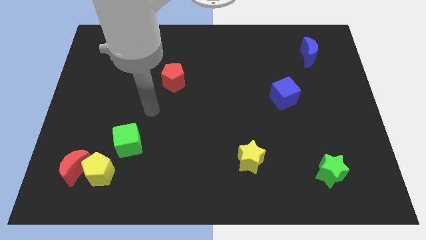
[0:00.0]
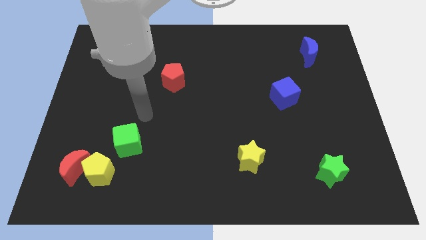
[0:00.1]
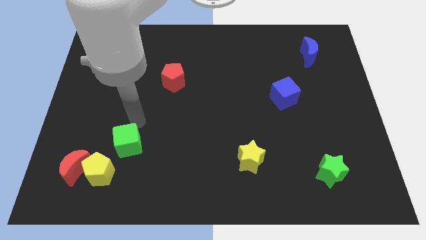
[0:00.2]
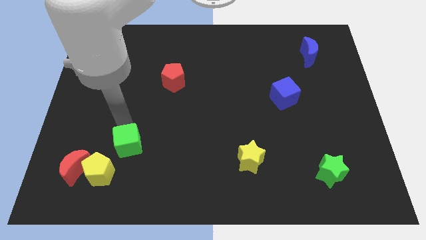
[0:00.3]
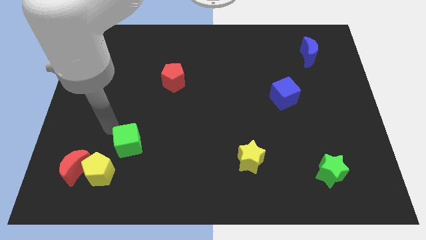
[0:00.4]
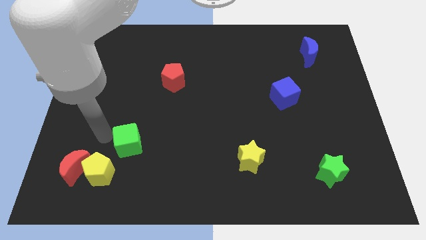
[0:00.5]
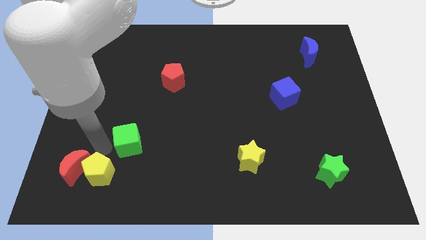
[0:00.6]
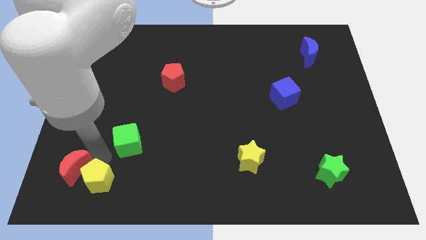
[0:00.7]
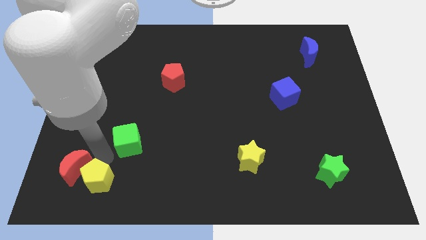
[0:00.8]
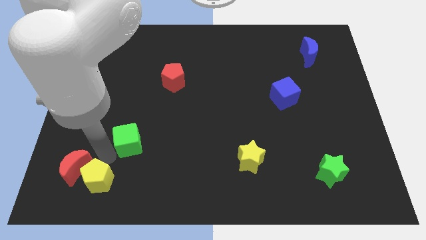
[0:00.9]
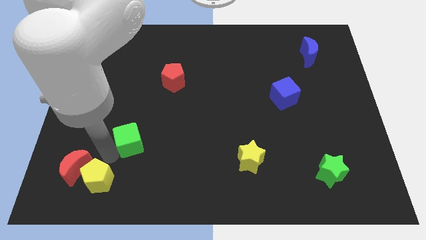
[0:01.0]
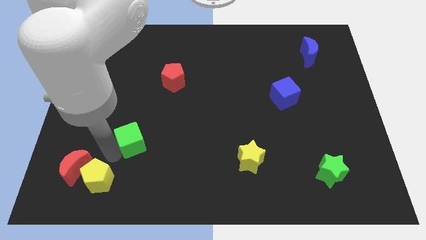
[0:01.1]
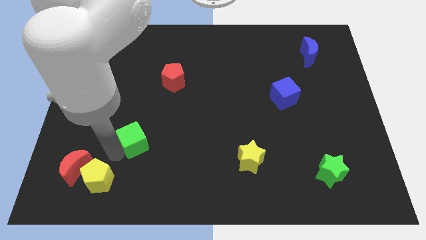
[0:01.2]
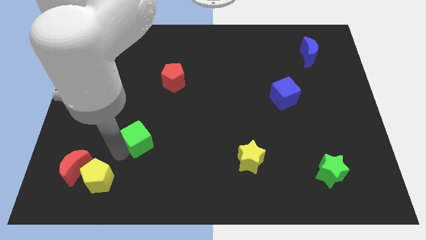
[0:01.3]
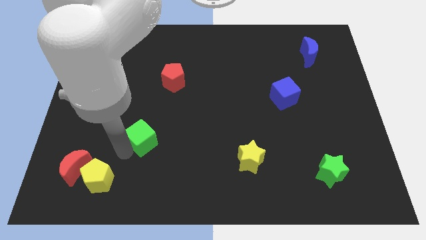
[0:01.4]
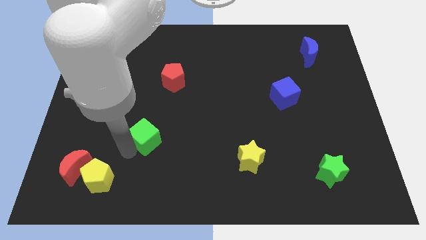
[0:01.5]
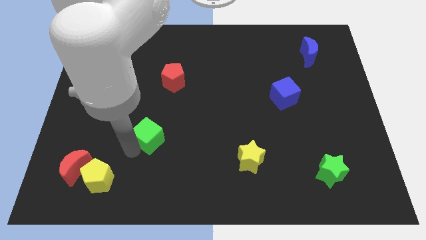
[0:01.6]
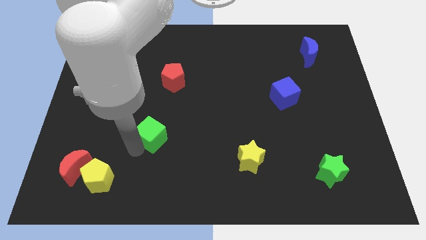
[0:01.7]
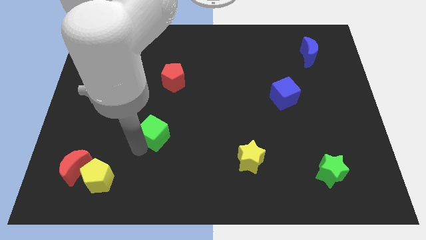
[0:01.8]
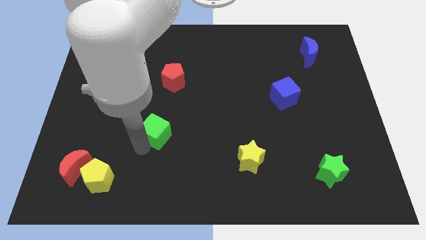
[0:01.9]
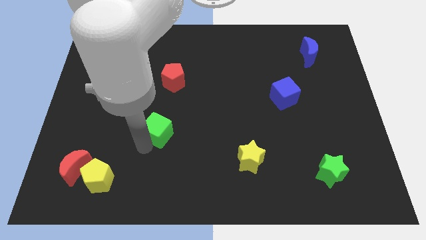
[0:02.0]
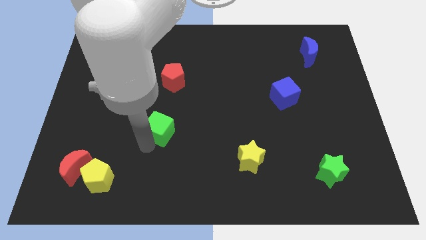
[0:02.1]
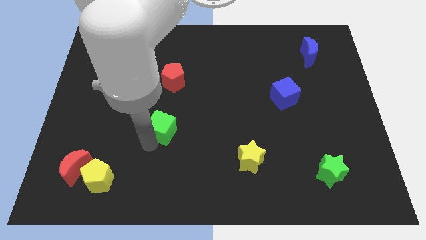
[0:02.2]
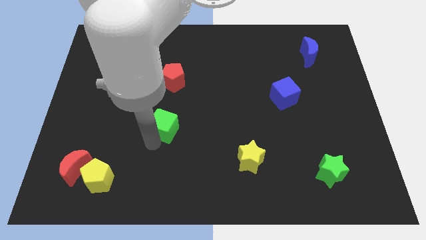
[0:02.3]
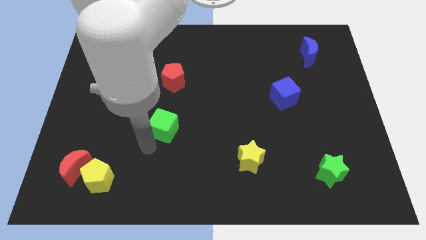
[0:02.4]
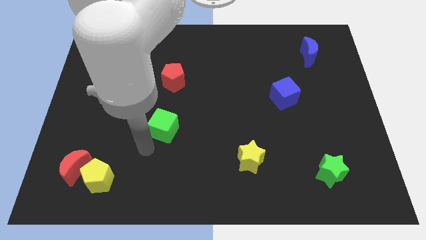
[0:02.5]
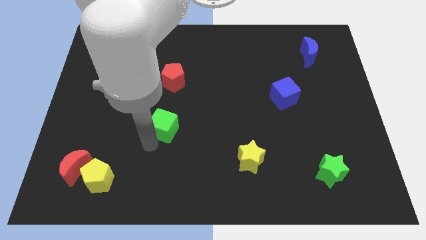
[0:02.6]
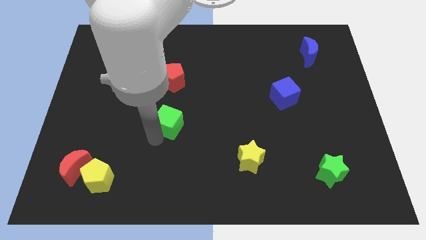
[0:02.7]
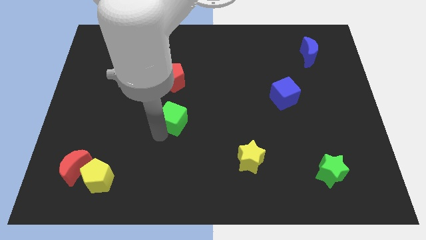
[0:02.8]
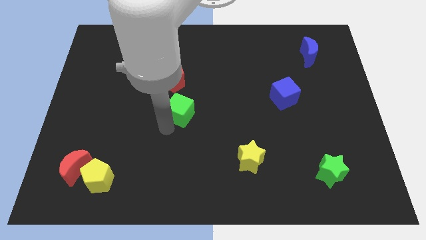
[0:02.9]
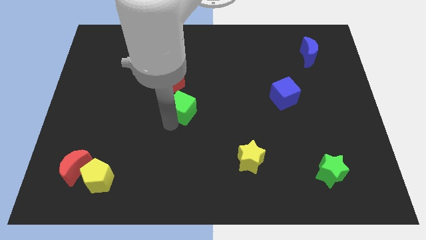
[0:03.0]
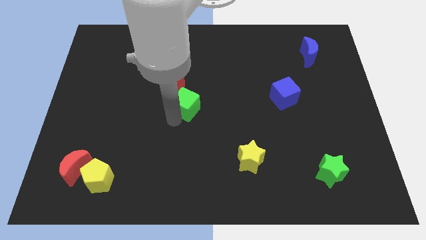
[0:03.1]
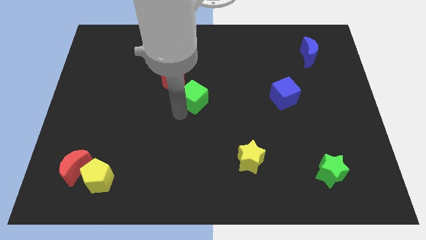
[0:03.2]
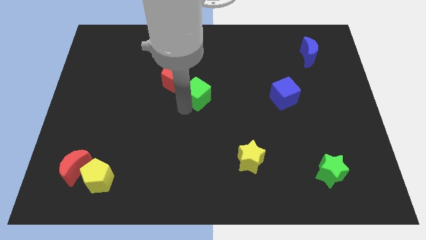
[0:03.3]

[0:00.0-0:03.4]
slide the green cube up and to the right

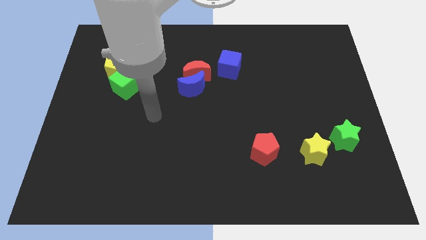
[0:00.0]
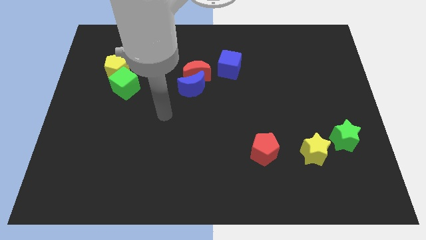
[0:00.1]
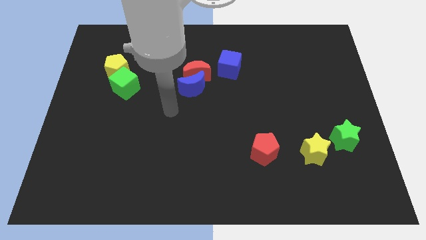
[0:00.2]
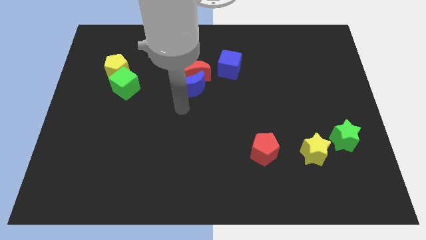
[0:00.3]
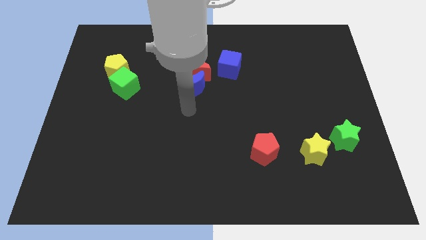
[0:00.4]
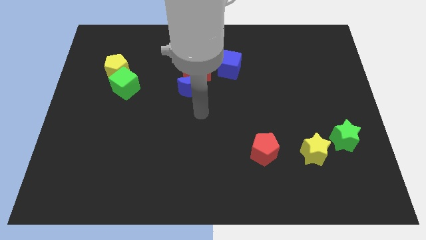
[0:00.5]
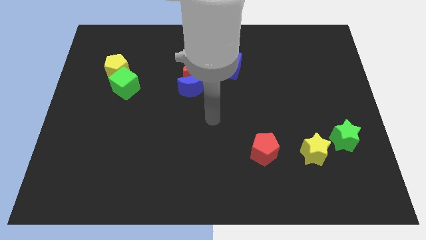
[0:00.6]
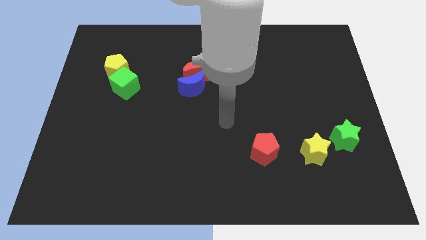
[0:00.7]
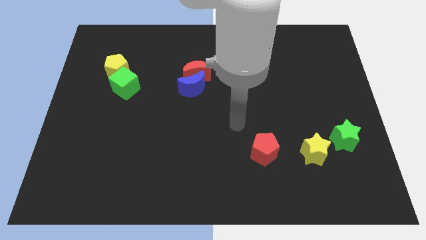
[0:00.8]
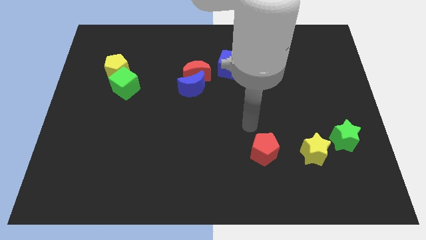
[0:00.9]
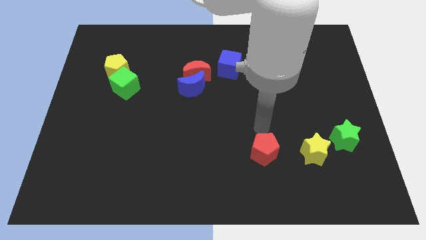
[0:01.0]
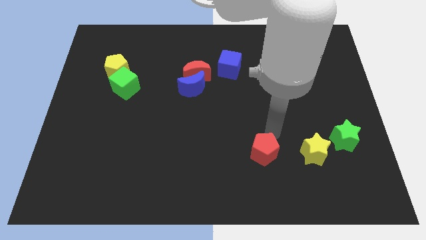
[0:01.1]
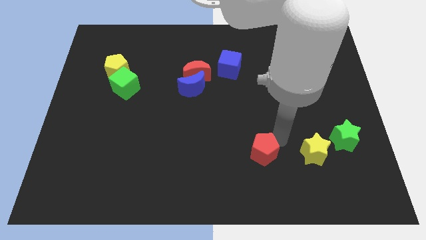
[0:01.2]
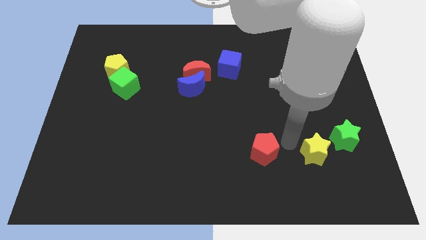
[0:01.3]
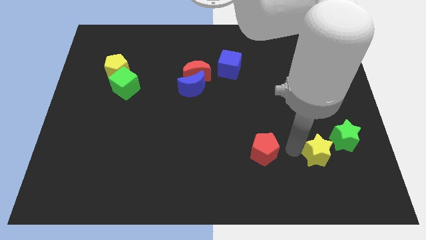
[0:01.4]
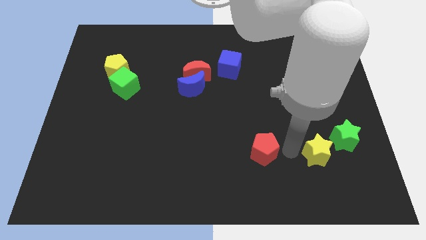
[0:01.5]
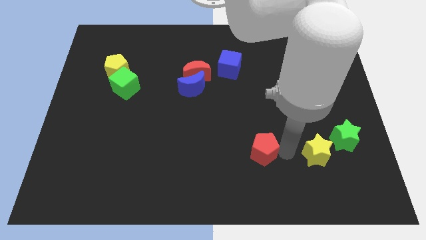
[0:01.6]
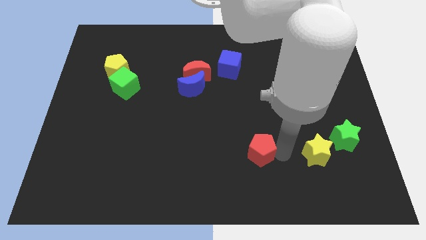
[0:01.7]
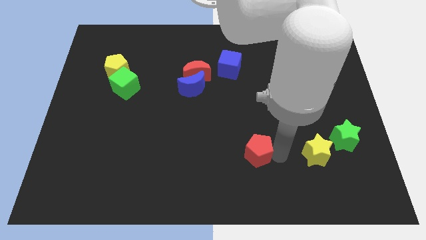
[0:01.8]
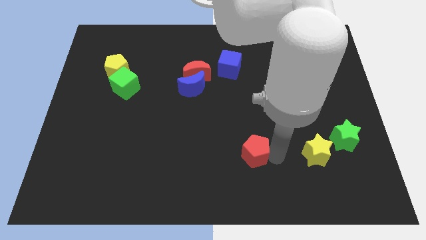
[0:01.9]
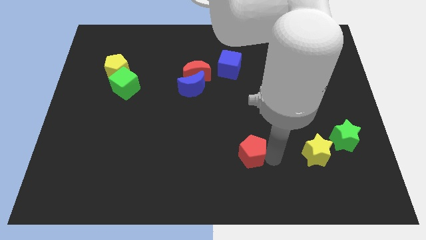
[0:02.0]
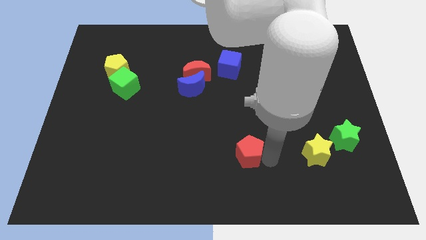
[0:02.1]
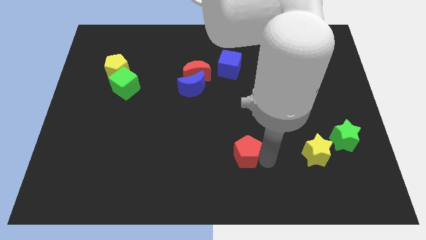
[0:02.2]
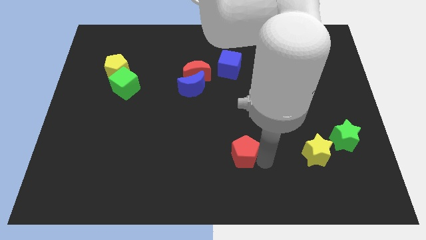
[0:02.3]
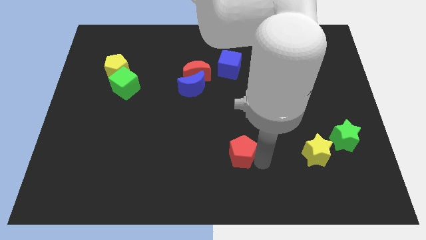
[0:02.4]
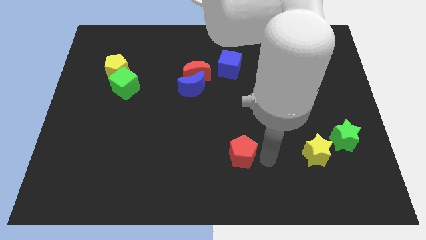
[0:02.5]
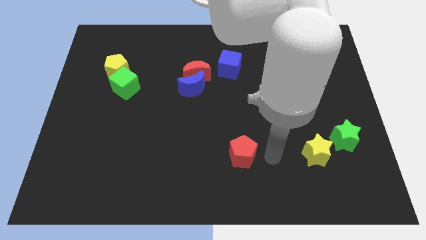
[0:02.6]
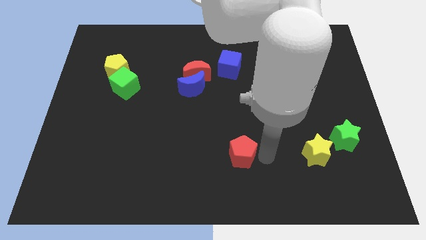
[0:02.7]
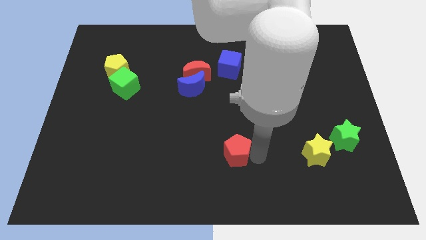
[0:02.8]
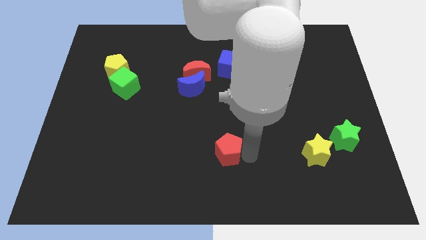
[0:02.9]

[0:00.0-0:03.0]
slightly slide the red pentagon to the left

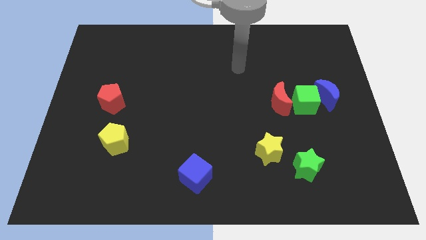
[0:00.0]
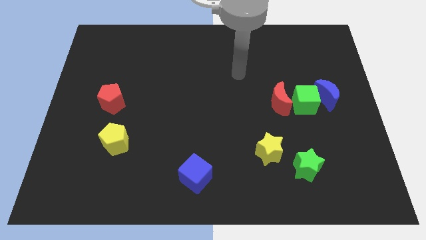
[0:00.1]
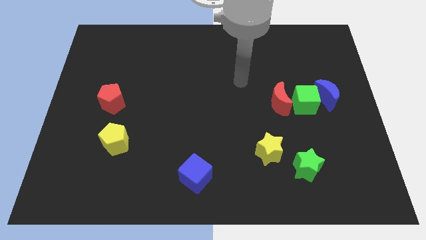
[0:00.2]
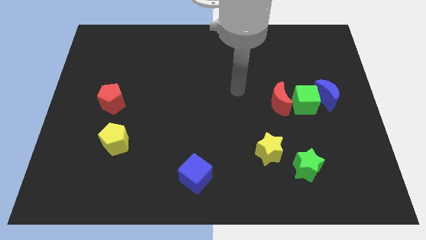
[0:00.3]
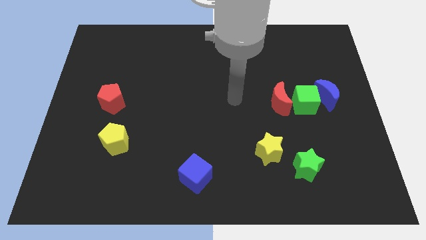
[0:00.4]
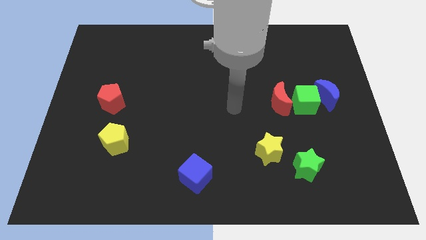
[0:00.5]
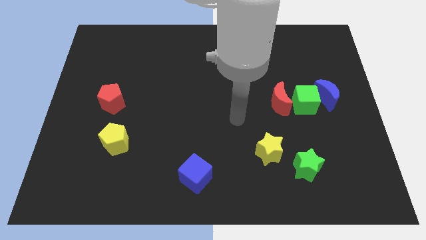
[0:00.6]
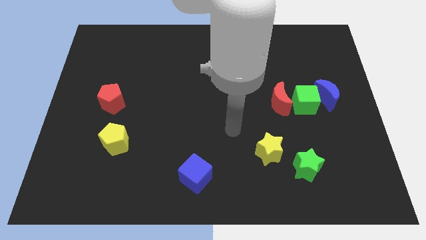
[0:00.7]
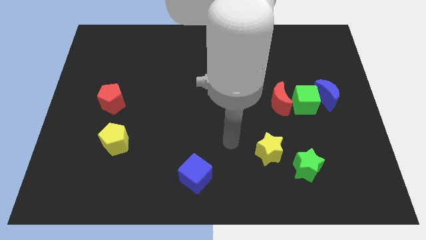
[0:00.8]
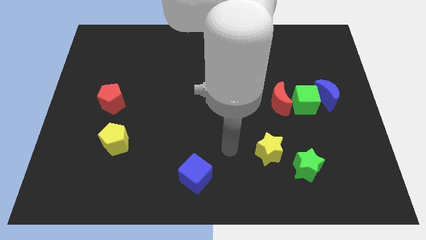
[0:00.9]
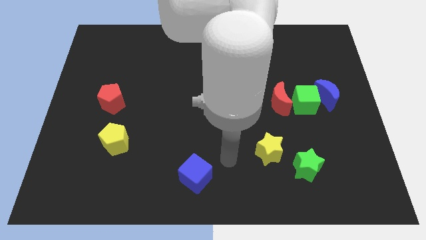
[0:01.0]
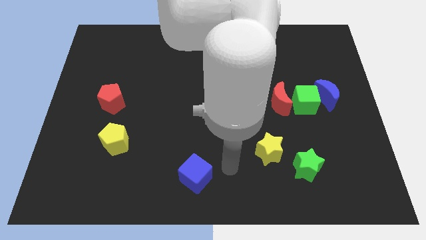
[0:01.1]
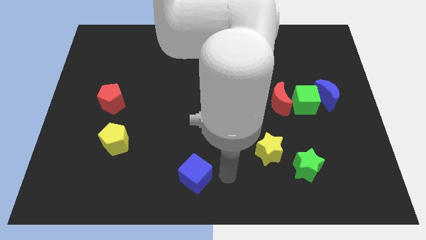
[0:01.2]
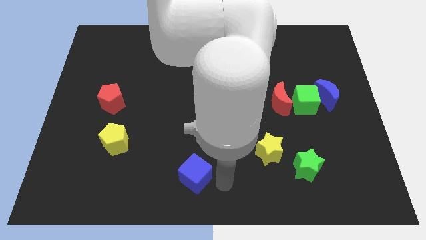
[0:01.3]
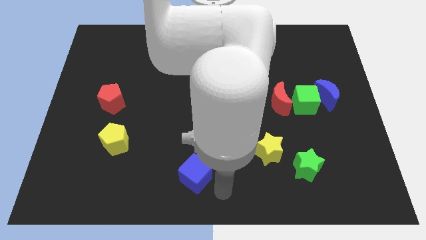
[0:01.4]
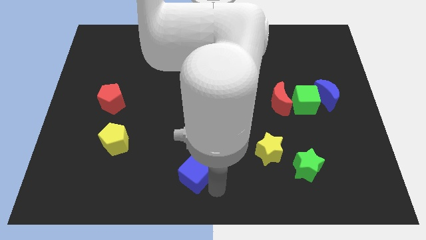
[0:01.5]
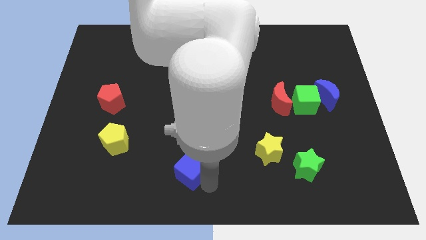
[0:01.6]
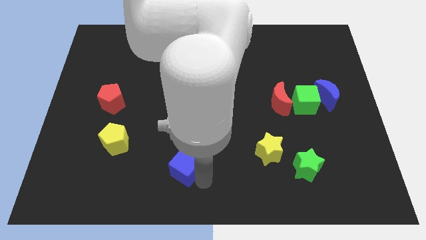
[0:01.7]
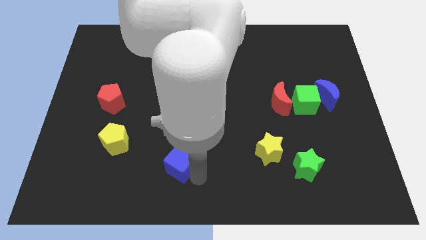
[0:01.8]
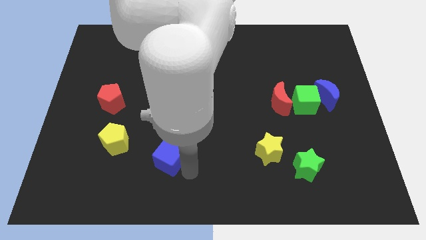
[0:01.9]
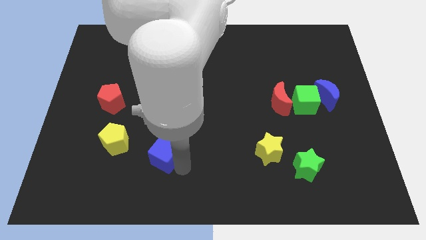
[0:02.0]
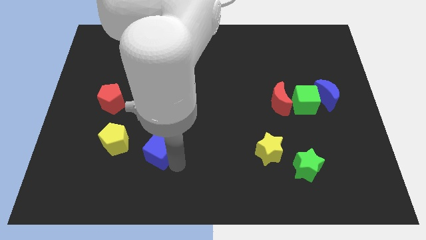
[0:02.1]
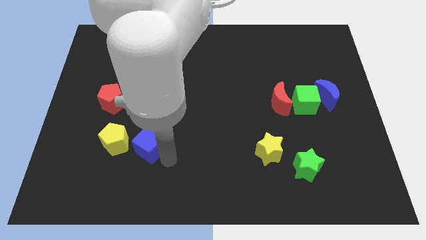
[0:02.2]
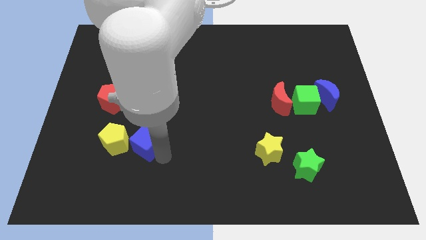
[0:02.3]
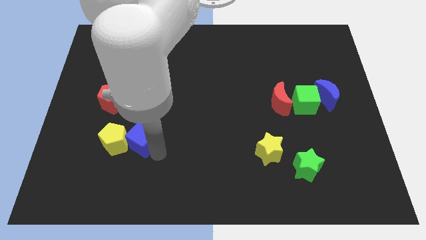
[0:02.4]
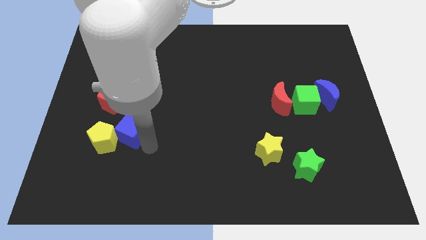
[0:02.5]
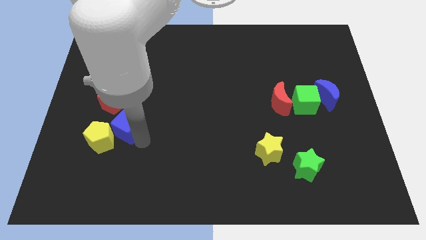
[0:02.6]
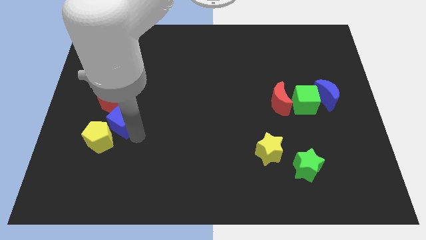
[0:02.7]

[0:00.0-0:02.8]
move the blue cube up and then to the left
